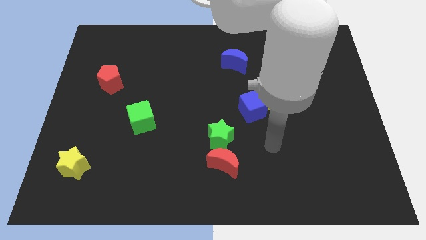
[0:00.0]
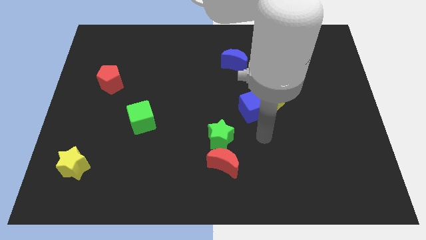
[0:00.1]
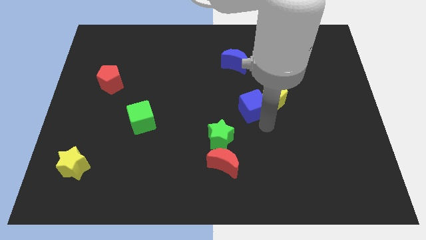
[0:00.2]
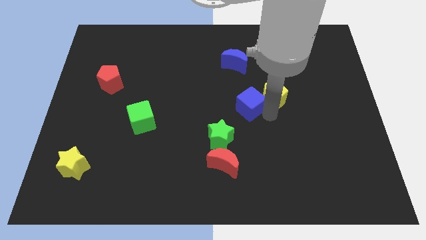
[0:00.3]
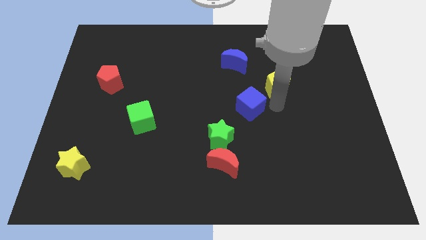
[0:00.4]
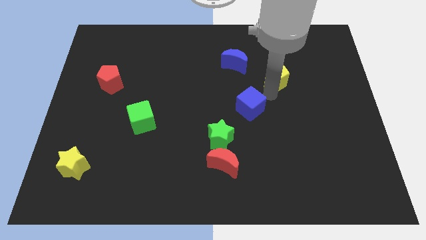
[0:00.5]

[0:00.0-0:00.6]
separate the blue cube from the yellow pentagon

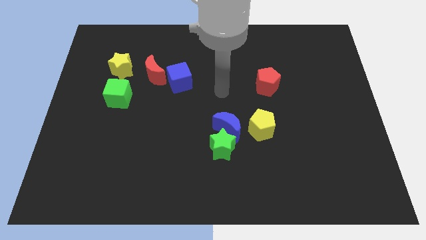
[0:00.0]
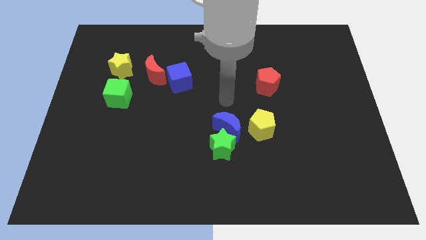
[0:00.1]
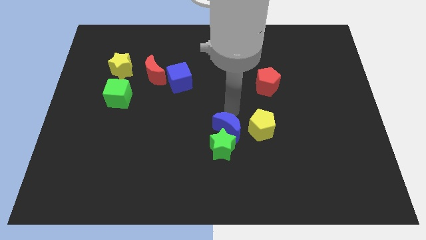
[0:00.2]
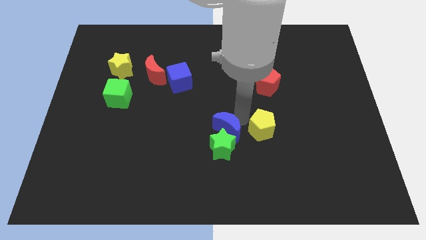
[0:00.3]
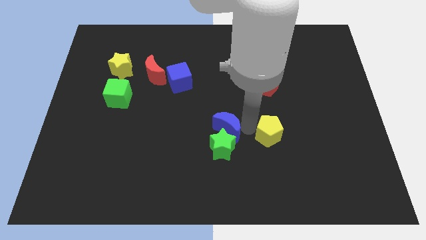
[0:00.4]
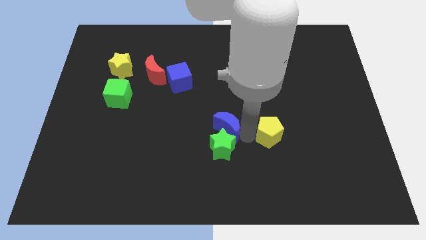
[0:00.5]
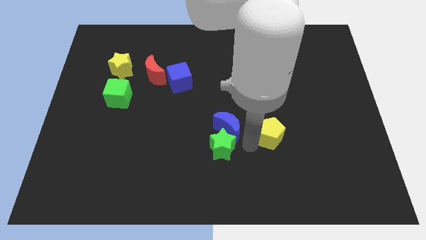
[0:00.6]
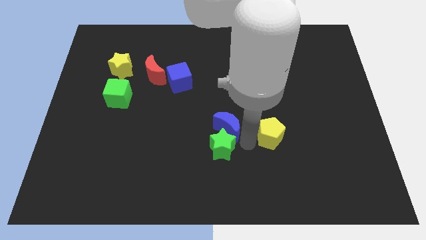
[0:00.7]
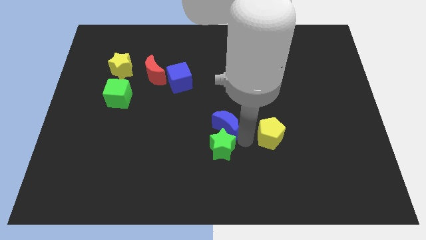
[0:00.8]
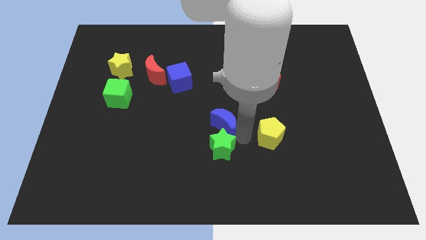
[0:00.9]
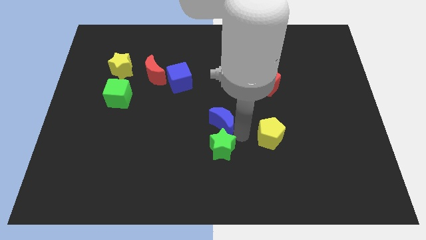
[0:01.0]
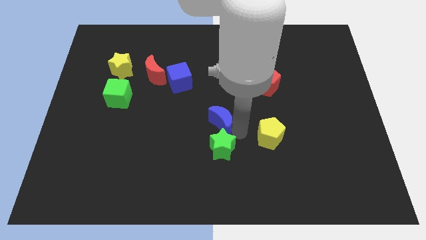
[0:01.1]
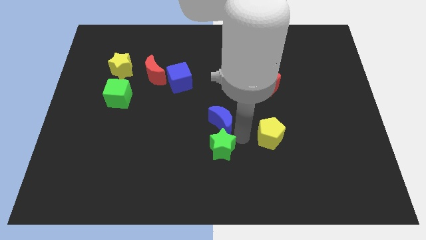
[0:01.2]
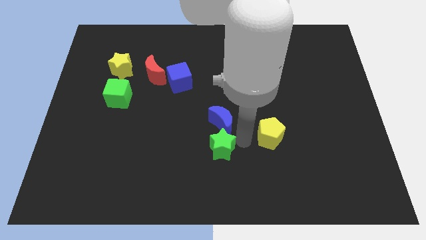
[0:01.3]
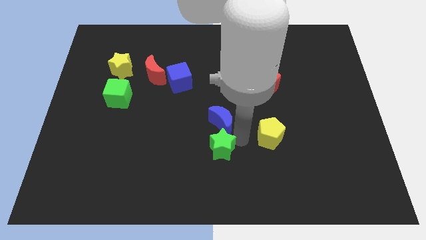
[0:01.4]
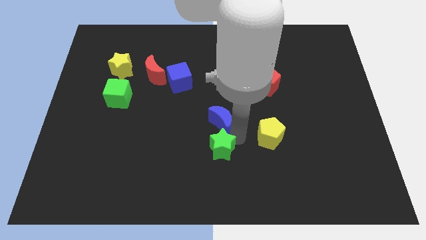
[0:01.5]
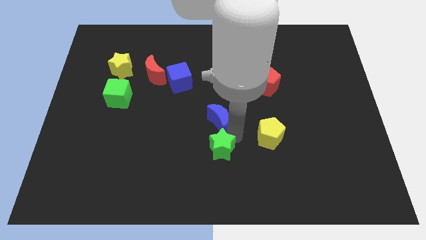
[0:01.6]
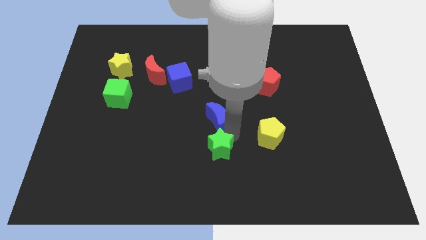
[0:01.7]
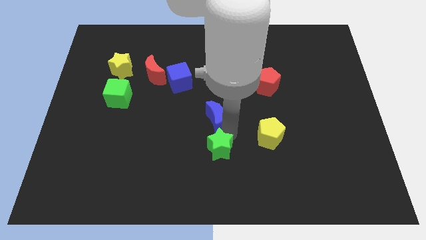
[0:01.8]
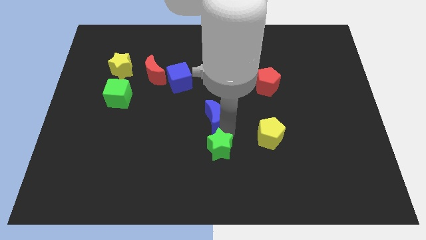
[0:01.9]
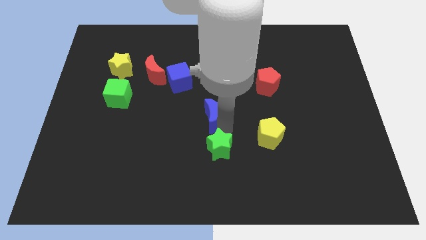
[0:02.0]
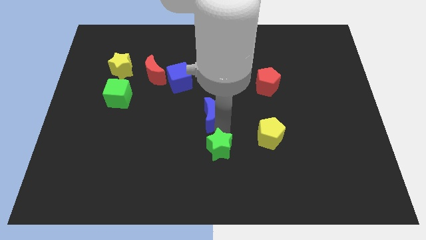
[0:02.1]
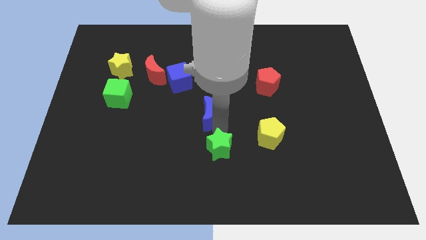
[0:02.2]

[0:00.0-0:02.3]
pull the blue moon apart from the green star and yellow pentagon

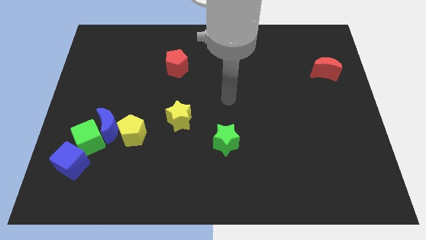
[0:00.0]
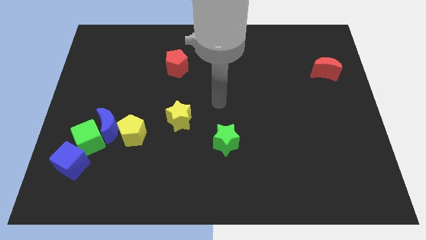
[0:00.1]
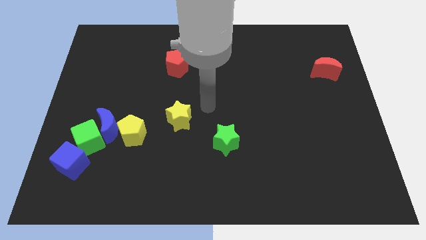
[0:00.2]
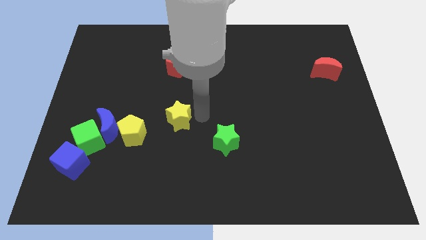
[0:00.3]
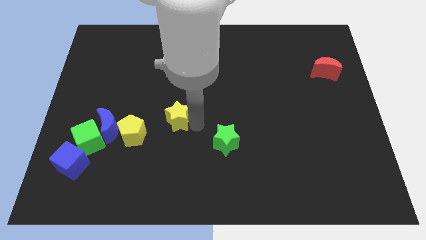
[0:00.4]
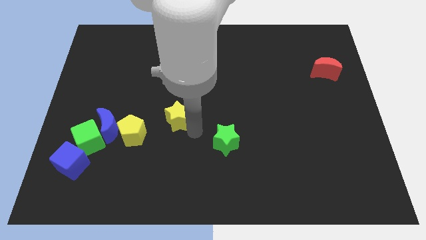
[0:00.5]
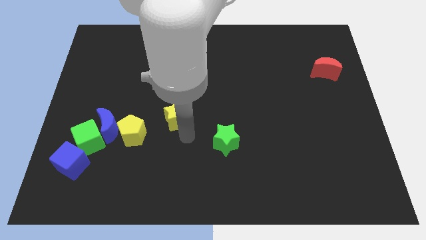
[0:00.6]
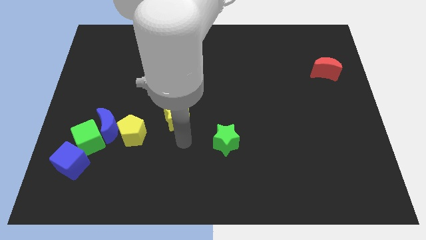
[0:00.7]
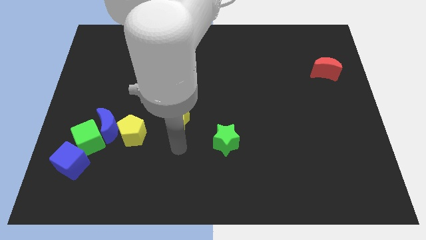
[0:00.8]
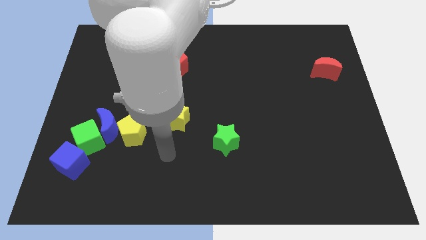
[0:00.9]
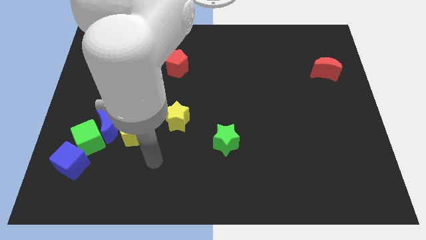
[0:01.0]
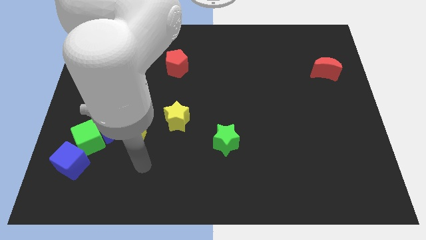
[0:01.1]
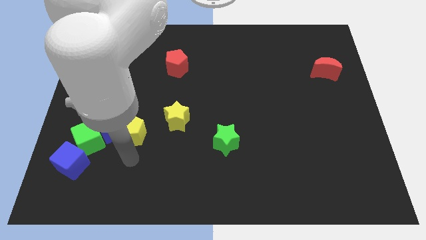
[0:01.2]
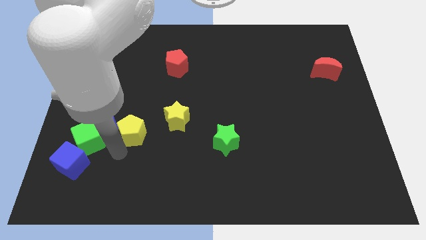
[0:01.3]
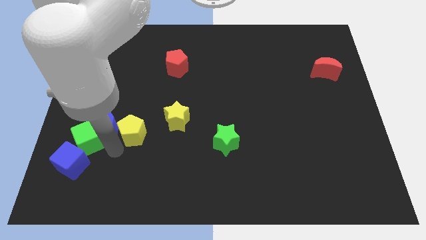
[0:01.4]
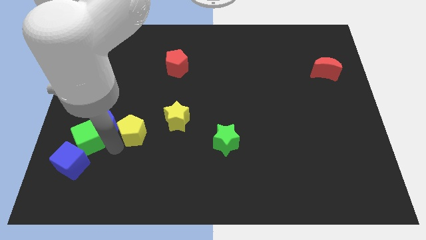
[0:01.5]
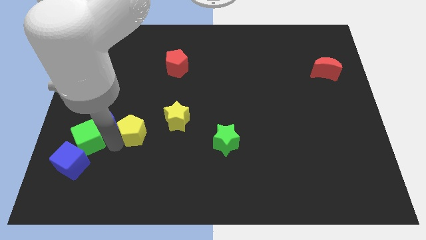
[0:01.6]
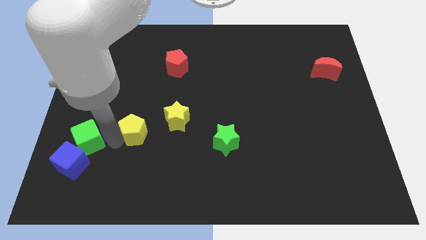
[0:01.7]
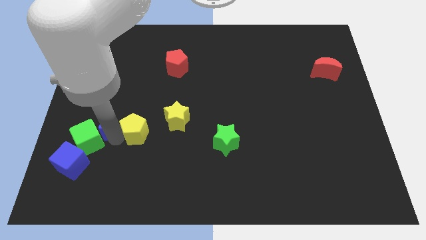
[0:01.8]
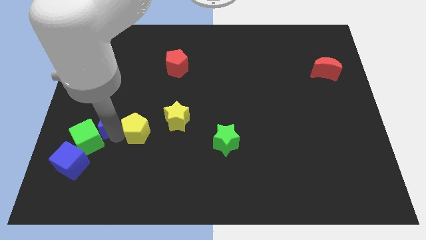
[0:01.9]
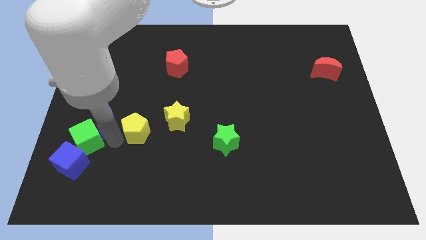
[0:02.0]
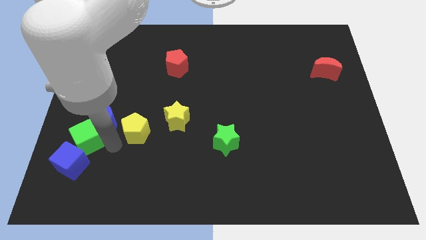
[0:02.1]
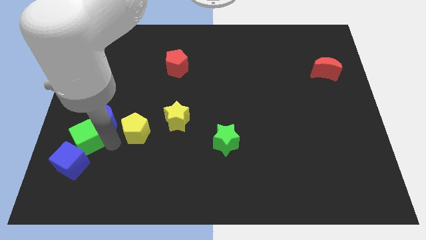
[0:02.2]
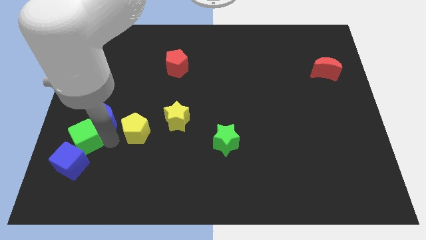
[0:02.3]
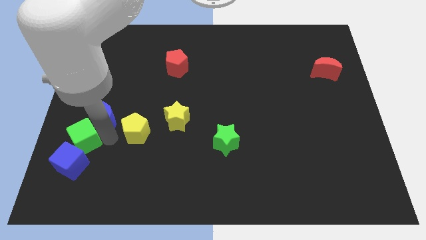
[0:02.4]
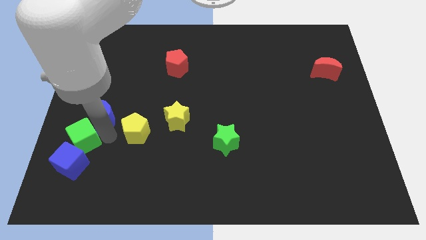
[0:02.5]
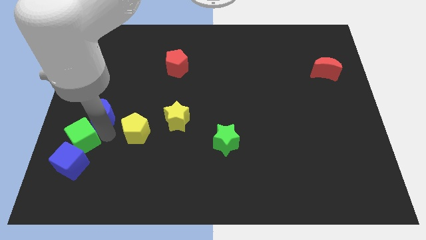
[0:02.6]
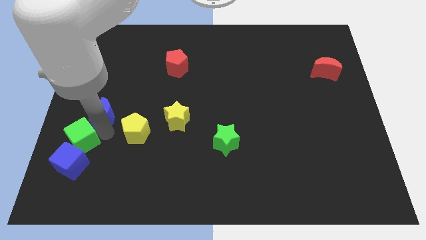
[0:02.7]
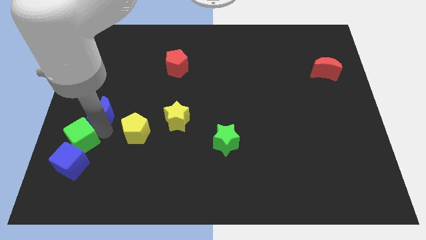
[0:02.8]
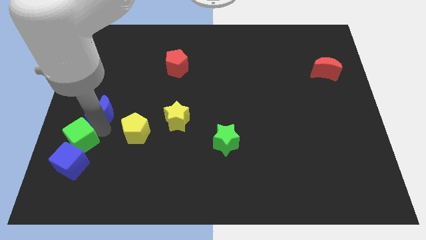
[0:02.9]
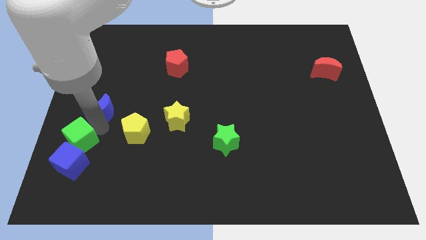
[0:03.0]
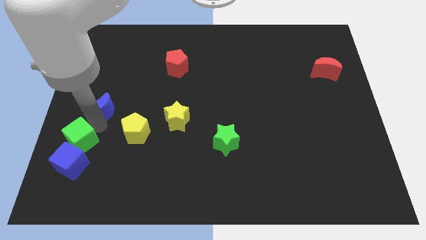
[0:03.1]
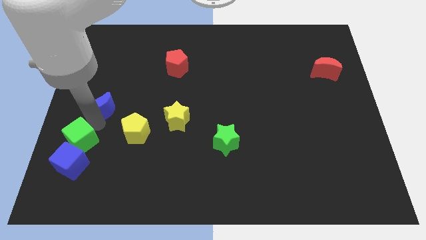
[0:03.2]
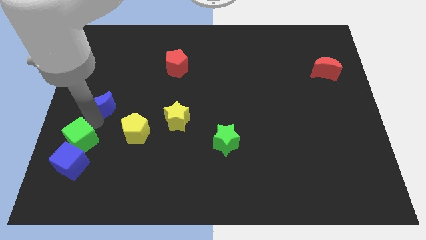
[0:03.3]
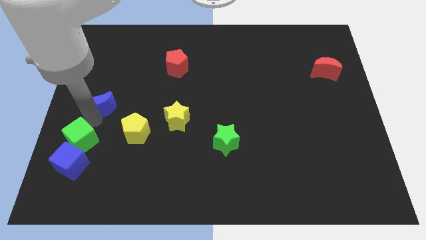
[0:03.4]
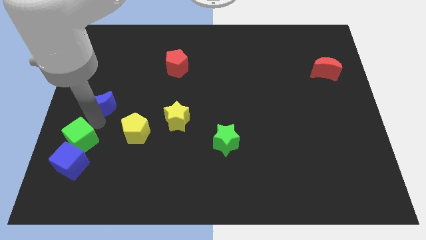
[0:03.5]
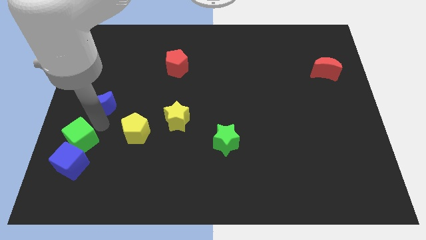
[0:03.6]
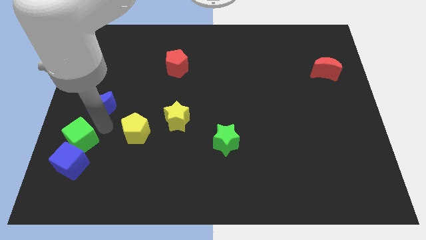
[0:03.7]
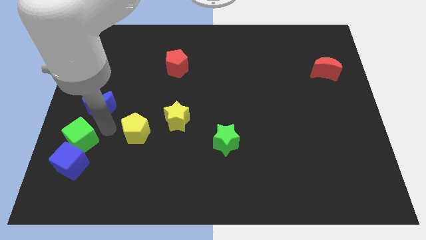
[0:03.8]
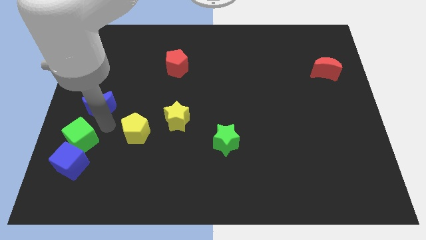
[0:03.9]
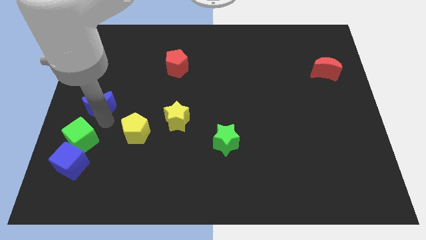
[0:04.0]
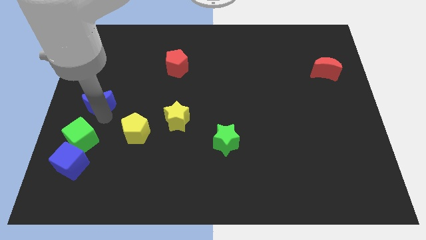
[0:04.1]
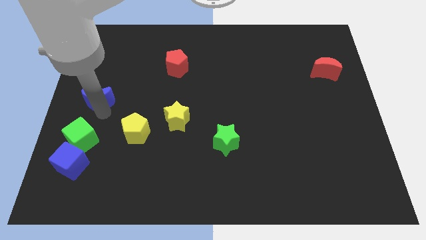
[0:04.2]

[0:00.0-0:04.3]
pull the blue moon apart from the green cube and yellow pentagon

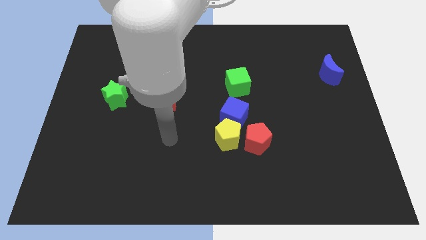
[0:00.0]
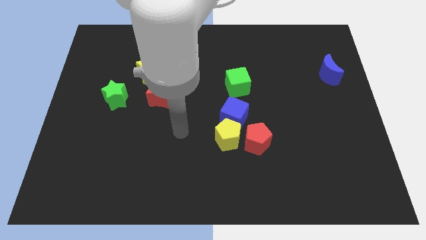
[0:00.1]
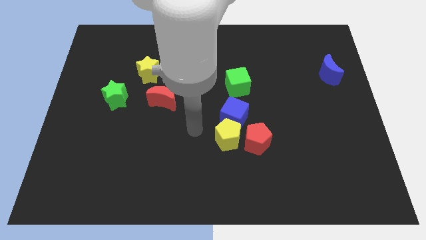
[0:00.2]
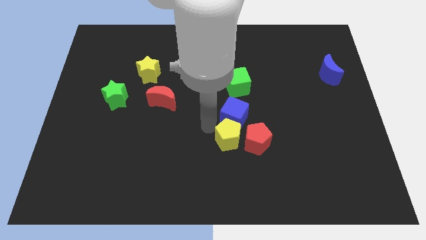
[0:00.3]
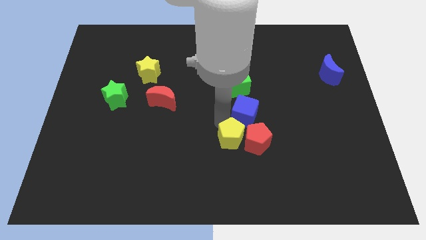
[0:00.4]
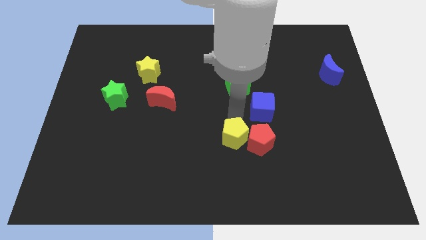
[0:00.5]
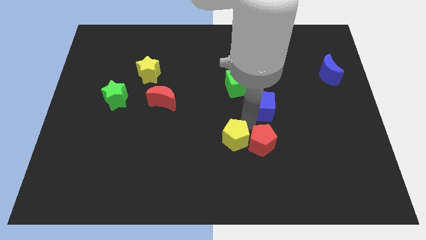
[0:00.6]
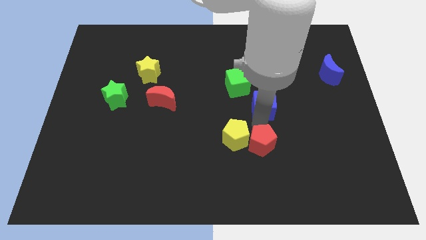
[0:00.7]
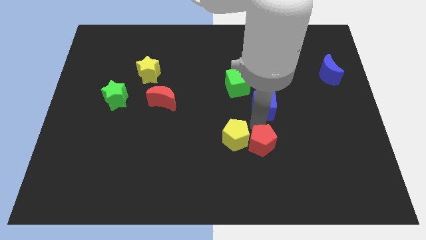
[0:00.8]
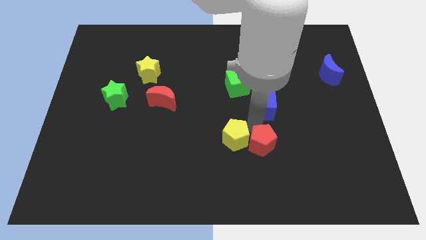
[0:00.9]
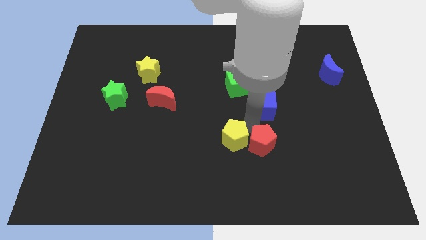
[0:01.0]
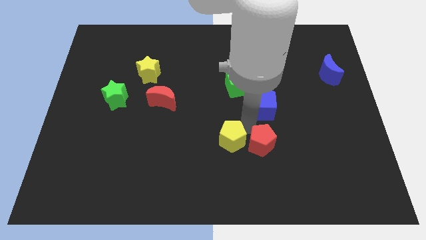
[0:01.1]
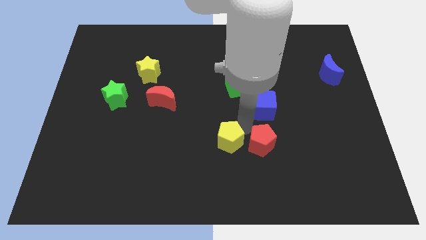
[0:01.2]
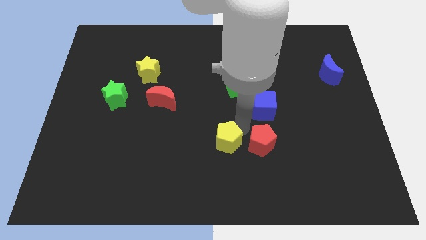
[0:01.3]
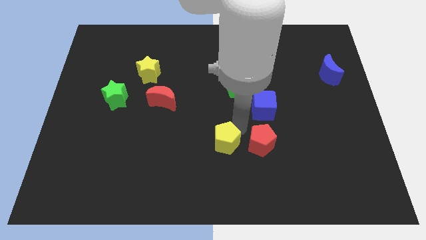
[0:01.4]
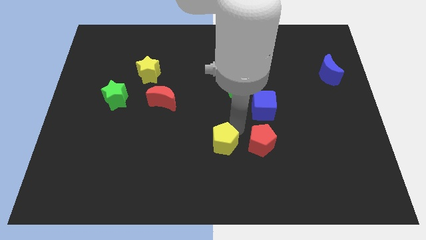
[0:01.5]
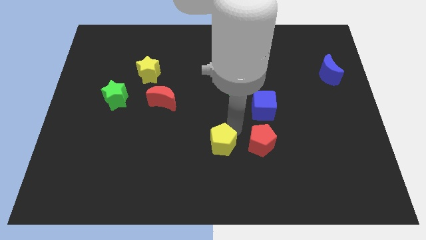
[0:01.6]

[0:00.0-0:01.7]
pull the yellow pentagon apart from the blue cube and red pentagon

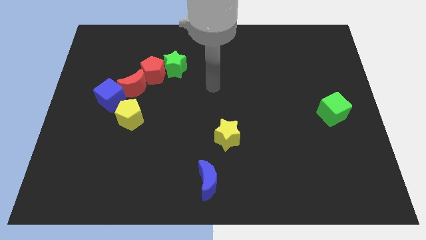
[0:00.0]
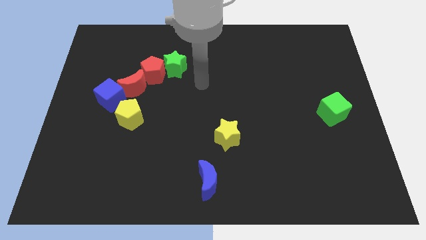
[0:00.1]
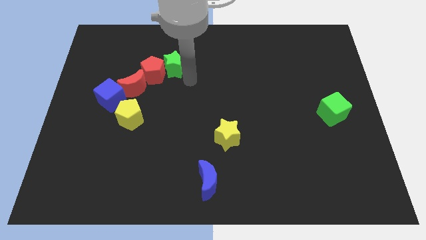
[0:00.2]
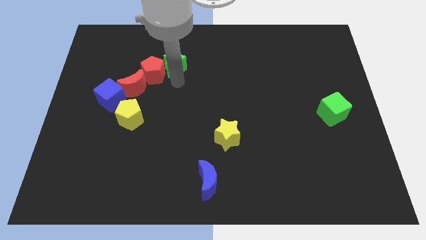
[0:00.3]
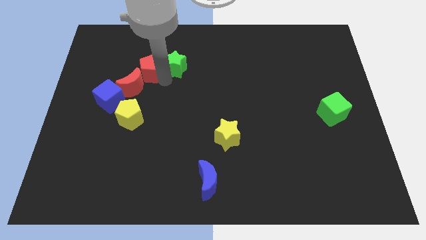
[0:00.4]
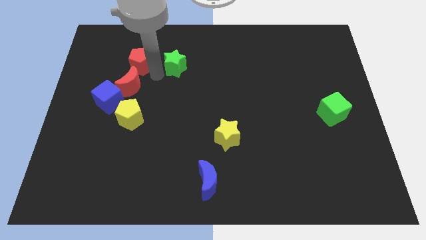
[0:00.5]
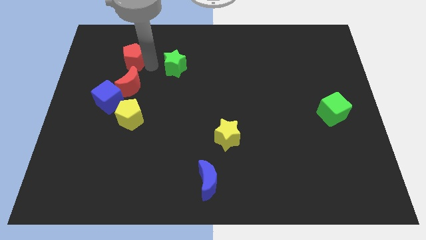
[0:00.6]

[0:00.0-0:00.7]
pull the green star apart from the red pentagon
